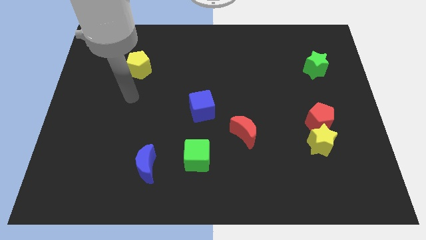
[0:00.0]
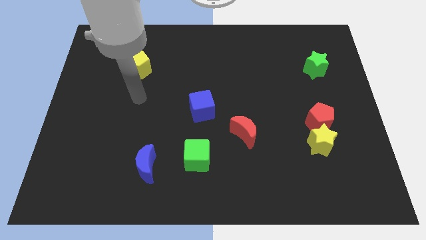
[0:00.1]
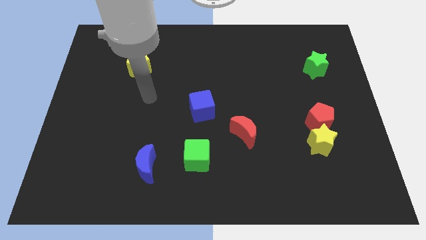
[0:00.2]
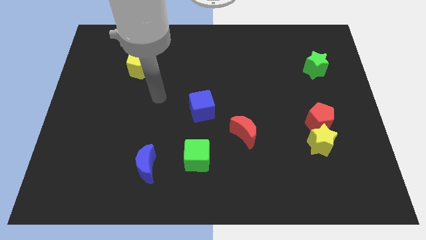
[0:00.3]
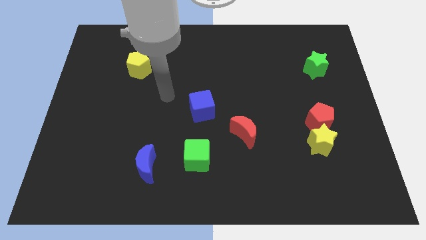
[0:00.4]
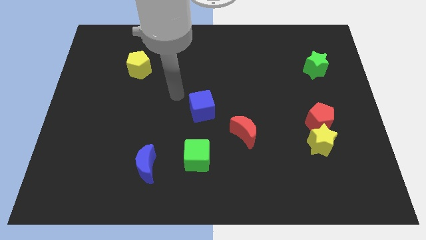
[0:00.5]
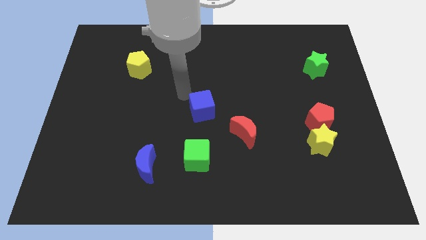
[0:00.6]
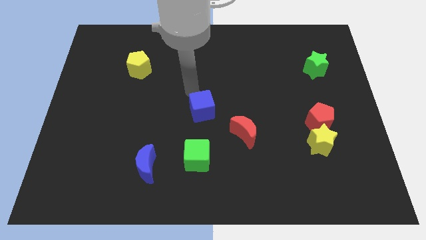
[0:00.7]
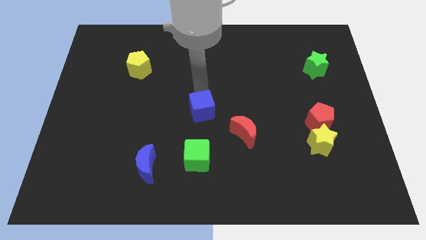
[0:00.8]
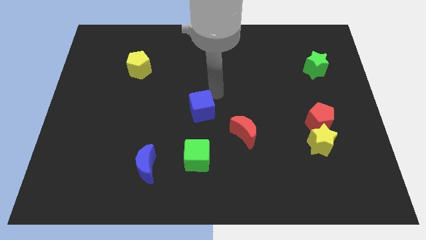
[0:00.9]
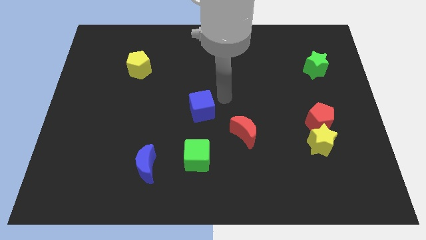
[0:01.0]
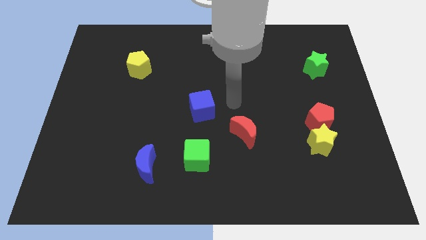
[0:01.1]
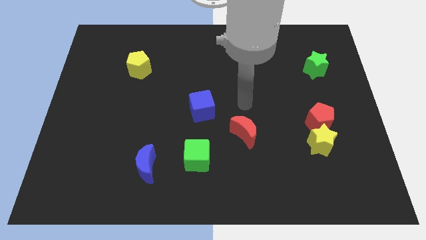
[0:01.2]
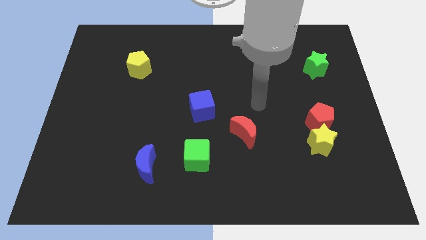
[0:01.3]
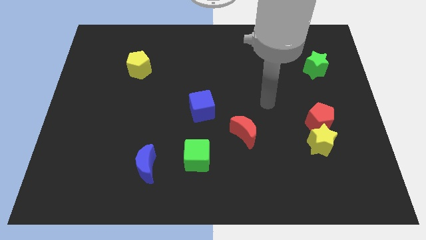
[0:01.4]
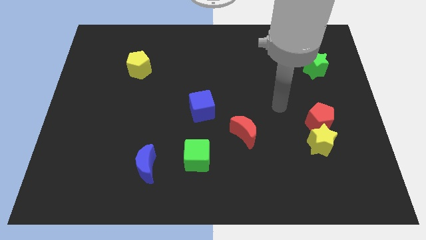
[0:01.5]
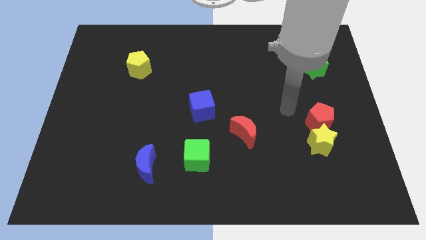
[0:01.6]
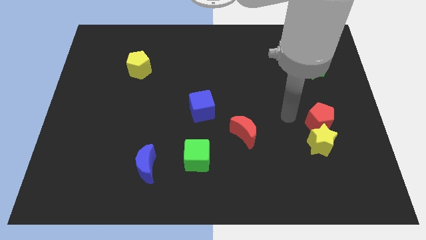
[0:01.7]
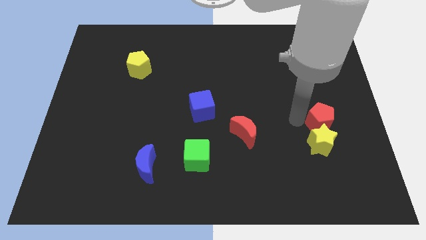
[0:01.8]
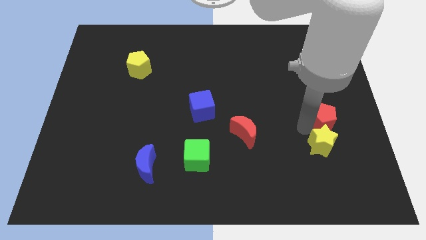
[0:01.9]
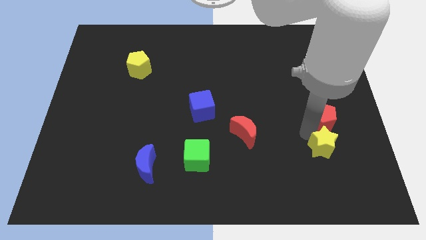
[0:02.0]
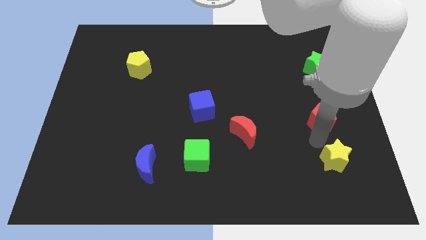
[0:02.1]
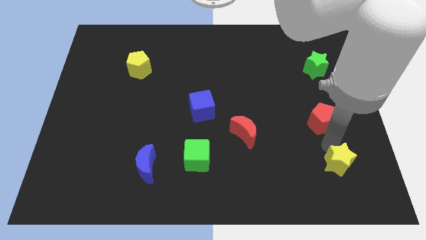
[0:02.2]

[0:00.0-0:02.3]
pull the red pentagon apart from the yellow star

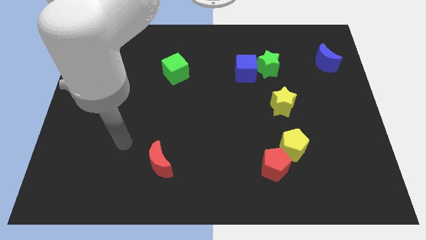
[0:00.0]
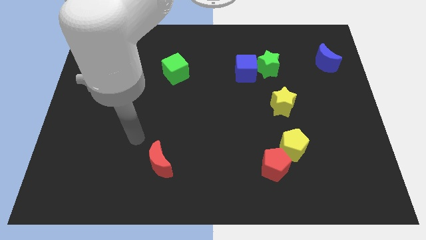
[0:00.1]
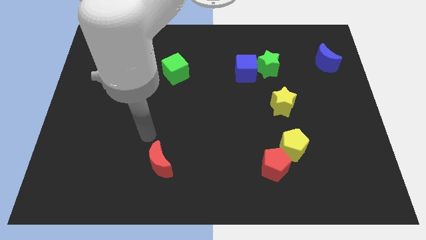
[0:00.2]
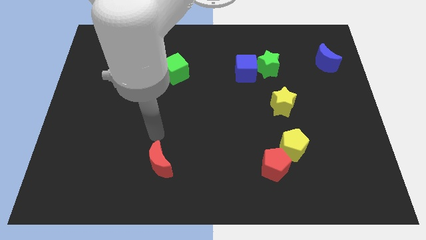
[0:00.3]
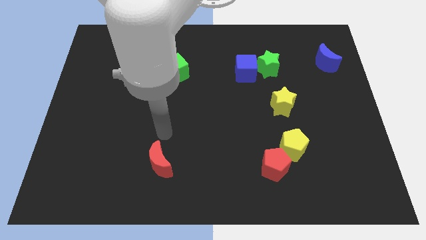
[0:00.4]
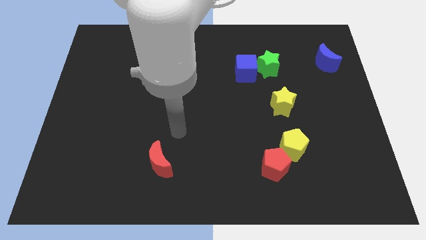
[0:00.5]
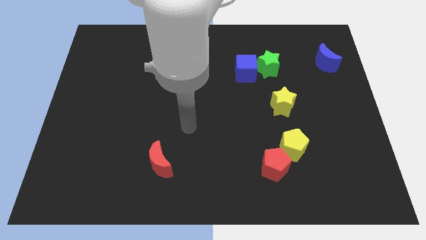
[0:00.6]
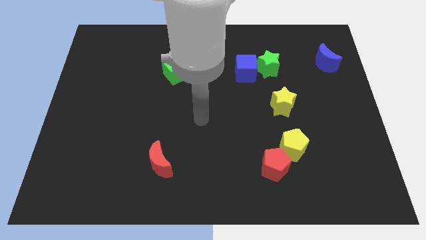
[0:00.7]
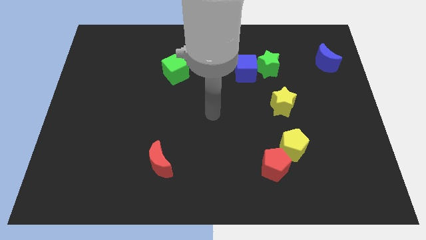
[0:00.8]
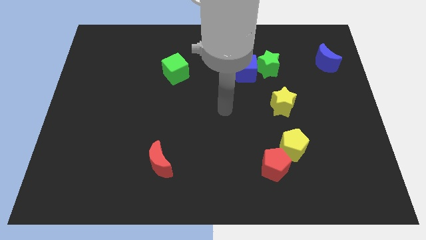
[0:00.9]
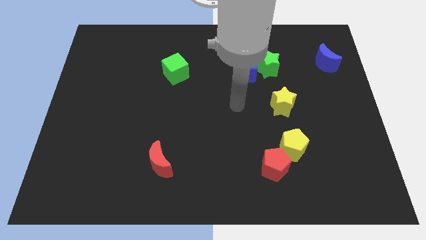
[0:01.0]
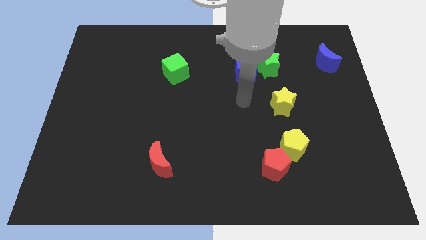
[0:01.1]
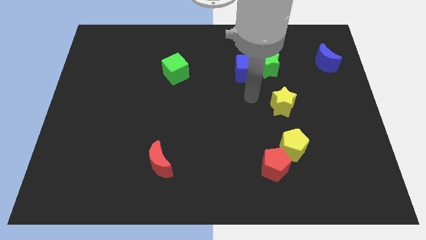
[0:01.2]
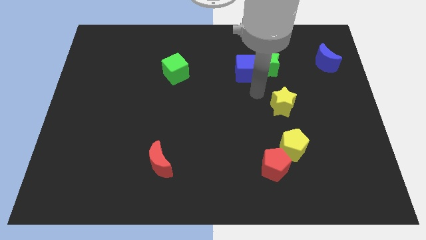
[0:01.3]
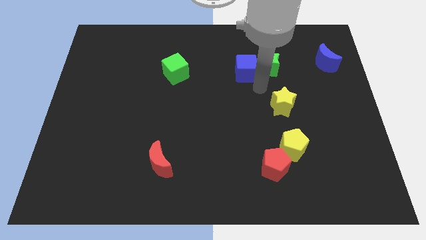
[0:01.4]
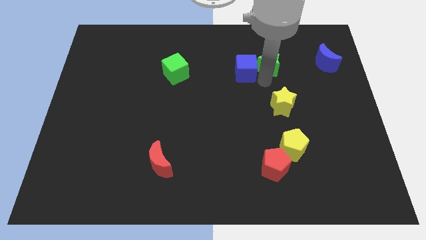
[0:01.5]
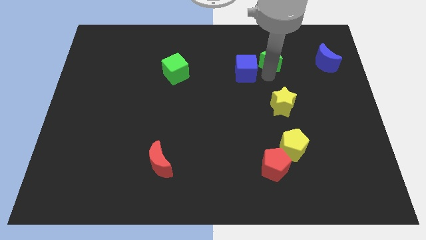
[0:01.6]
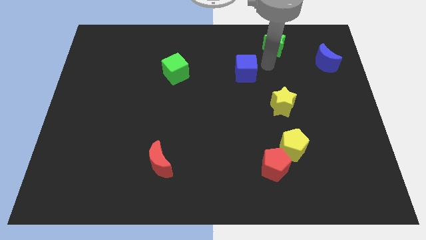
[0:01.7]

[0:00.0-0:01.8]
separate the blue cube from the green star

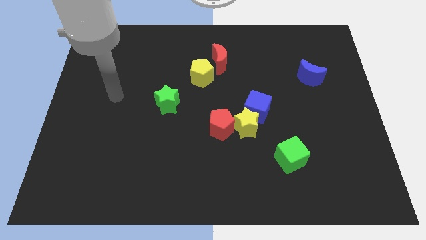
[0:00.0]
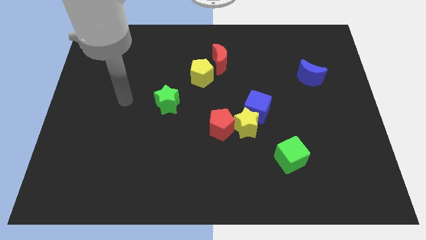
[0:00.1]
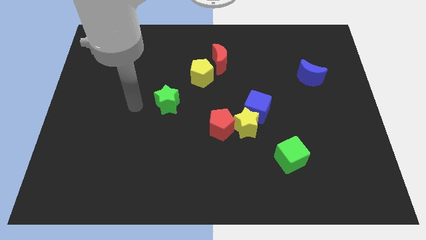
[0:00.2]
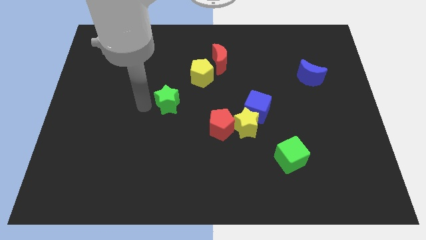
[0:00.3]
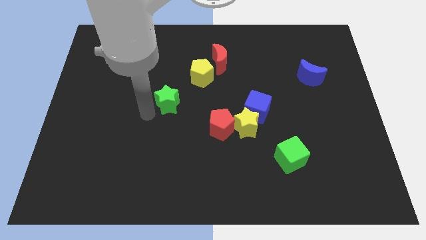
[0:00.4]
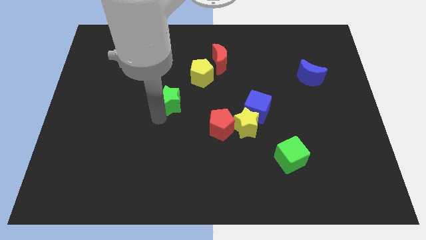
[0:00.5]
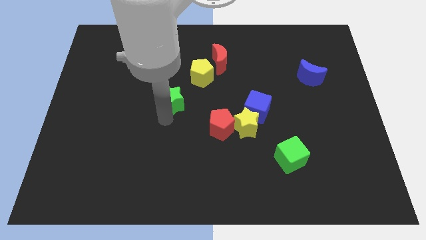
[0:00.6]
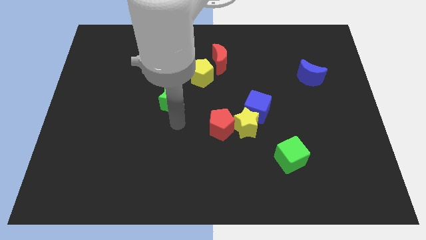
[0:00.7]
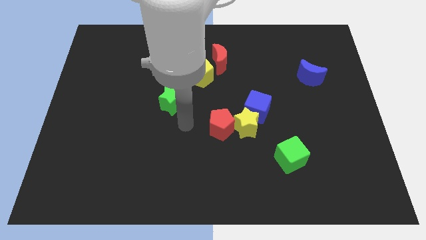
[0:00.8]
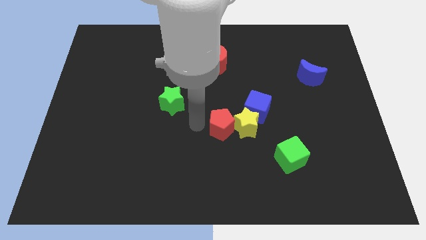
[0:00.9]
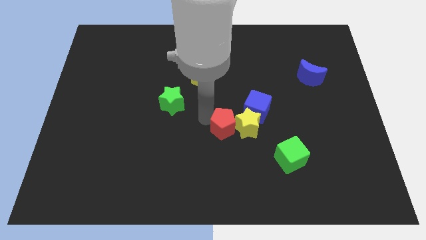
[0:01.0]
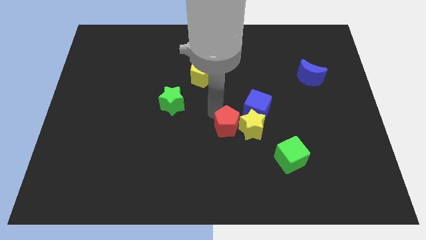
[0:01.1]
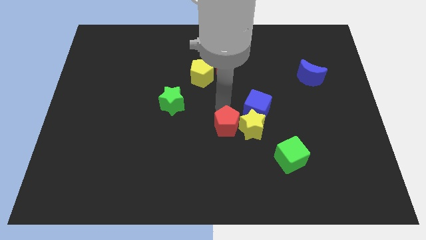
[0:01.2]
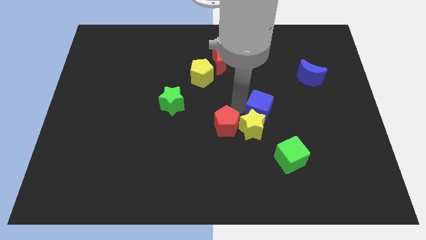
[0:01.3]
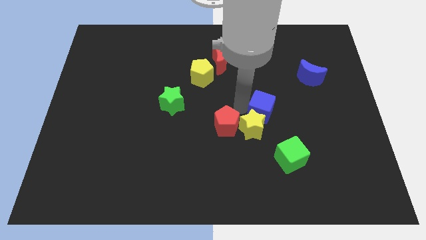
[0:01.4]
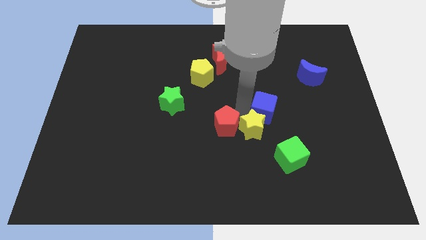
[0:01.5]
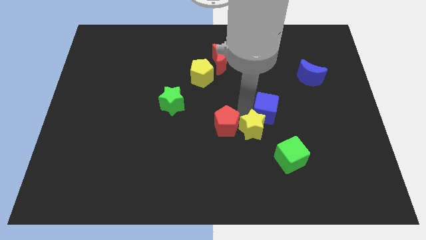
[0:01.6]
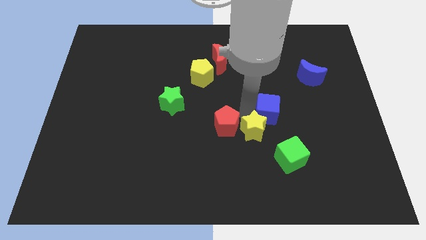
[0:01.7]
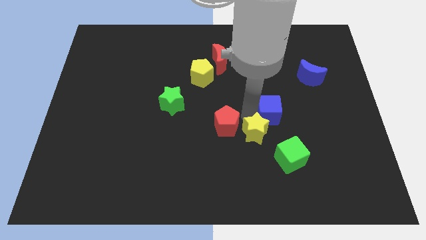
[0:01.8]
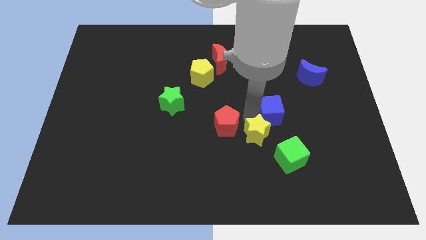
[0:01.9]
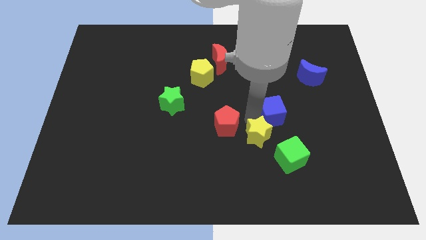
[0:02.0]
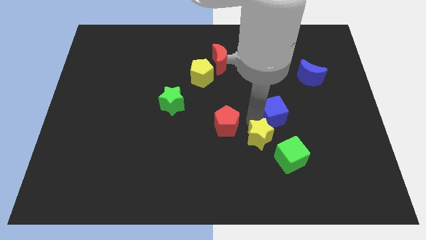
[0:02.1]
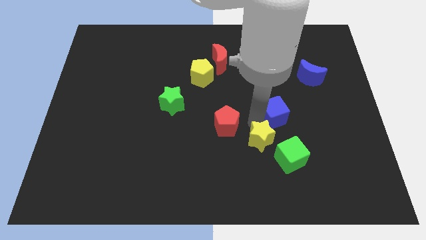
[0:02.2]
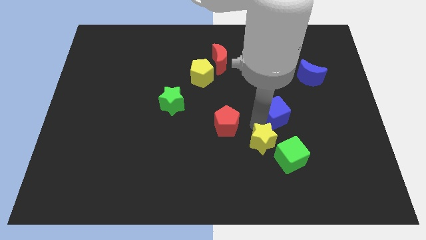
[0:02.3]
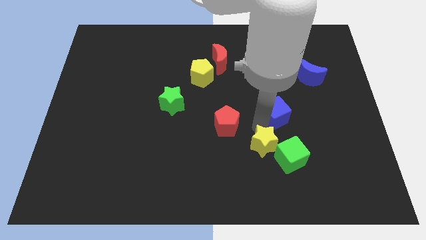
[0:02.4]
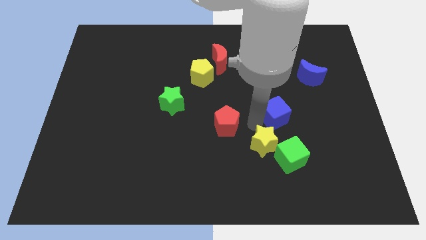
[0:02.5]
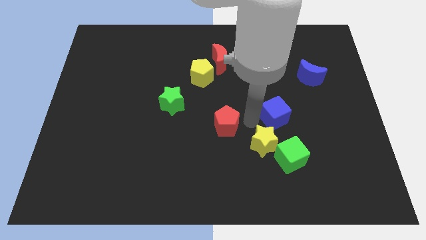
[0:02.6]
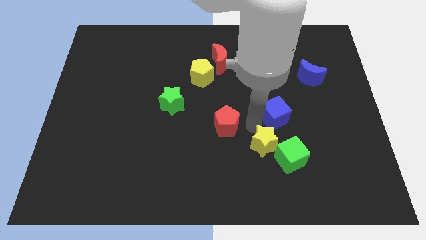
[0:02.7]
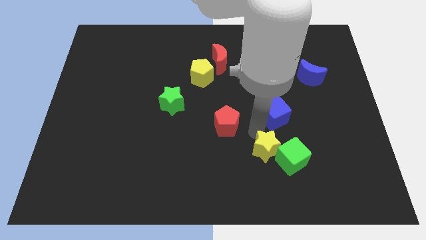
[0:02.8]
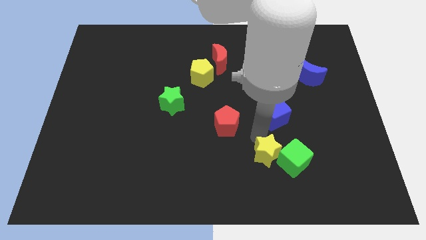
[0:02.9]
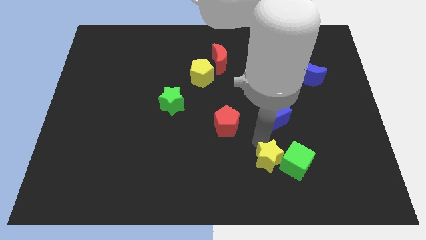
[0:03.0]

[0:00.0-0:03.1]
pull the yellow star apart from the red pentagon and blue cube

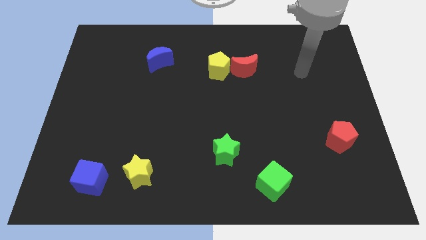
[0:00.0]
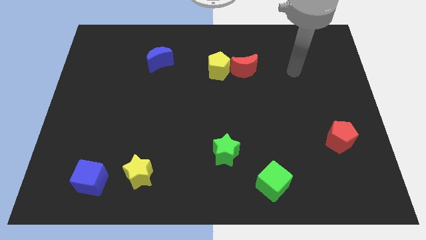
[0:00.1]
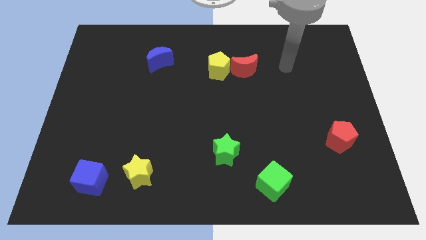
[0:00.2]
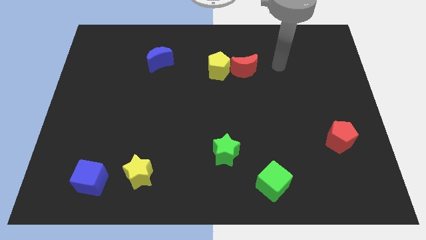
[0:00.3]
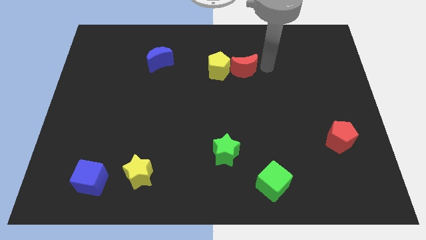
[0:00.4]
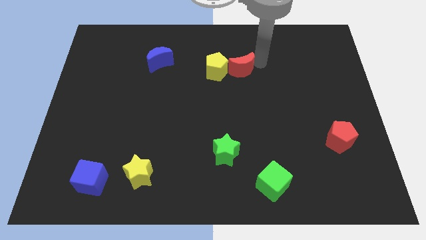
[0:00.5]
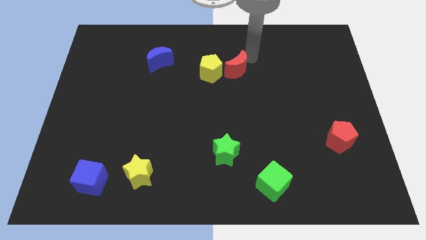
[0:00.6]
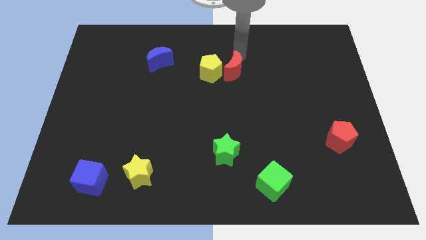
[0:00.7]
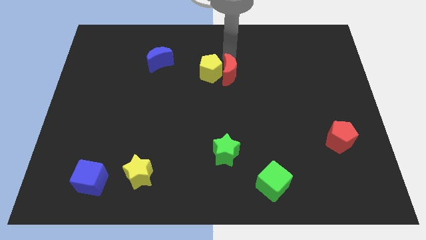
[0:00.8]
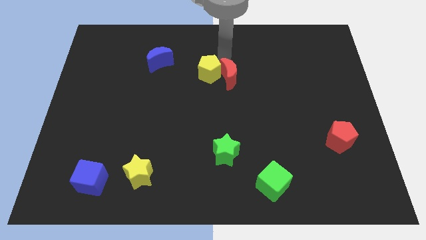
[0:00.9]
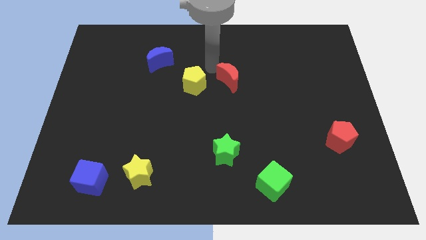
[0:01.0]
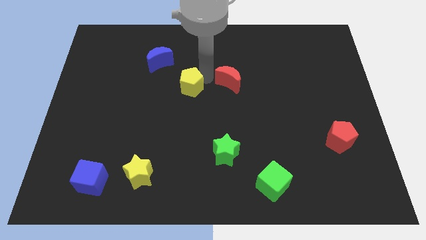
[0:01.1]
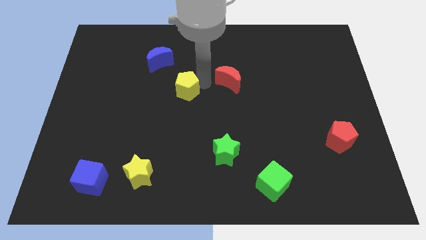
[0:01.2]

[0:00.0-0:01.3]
separate the red moon from the yellow pentagon

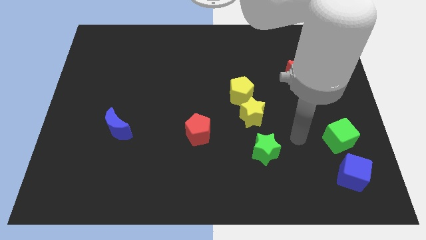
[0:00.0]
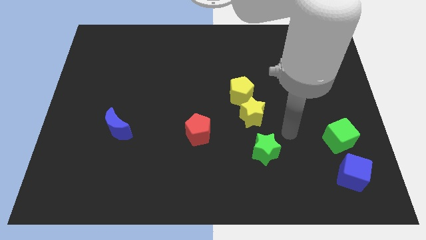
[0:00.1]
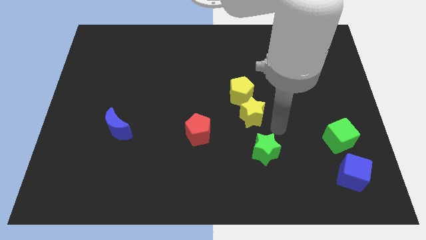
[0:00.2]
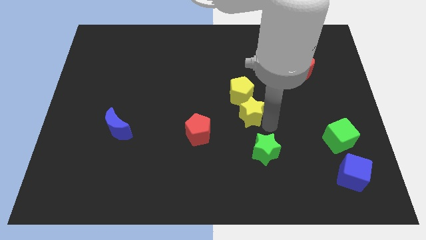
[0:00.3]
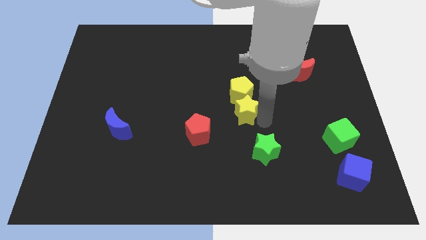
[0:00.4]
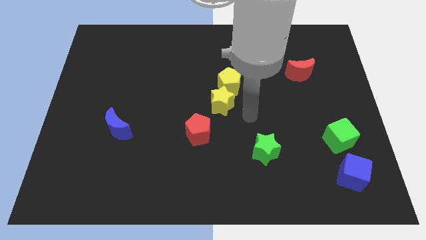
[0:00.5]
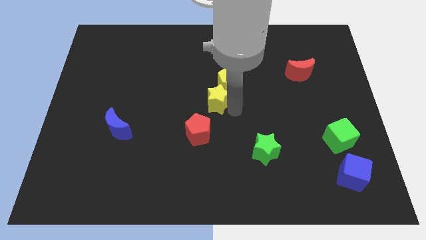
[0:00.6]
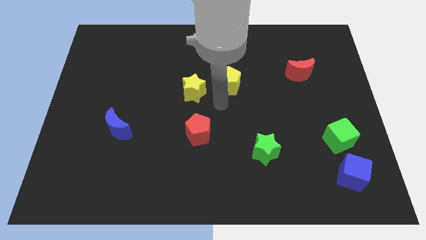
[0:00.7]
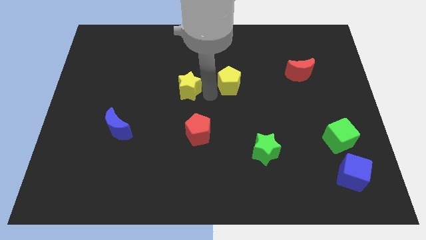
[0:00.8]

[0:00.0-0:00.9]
separate the yellow pentagon from the yellow star
